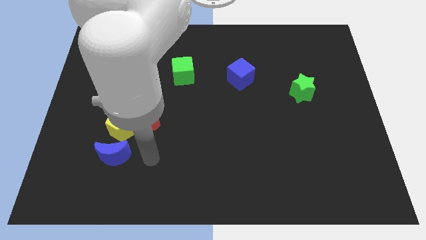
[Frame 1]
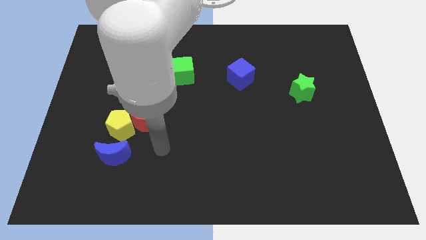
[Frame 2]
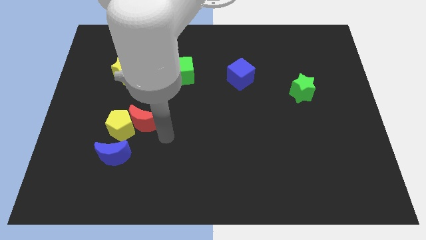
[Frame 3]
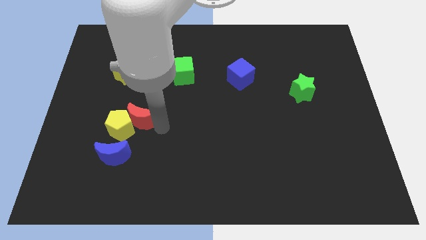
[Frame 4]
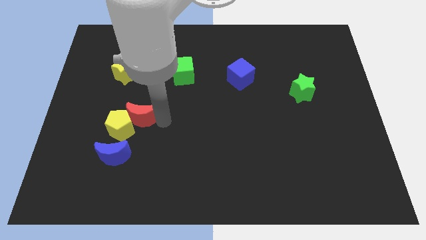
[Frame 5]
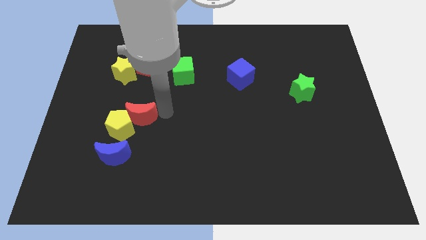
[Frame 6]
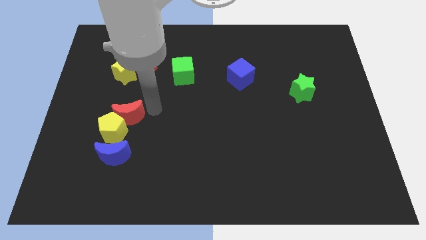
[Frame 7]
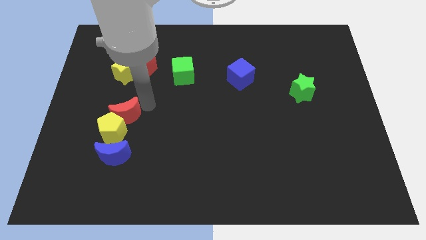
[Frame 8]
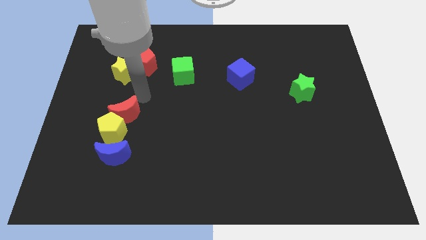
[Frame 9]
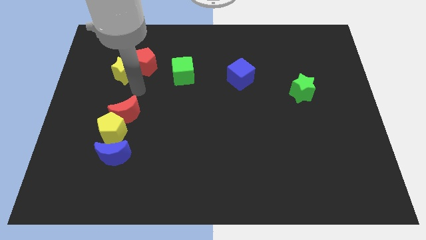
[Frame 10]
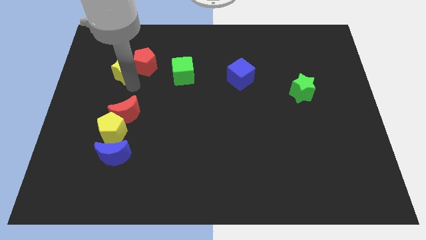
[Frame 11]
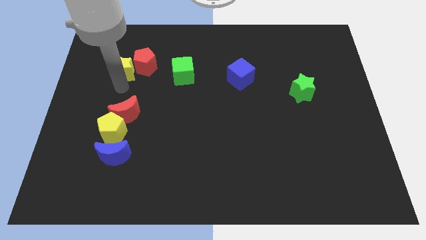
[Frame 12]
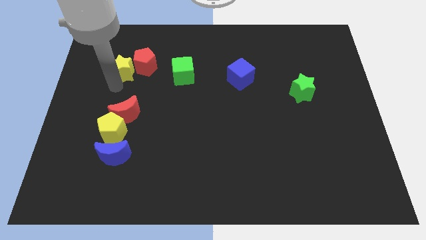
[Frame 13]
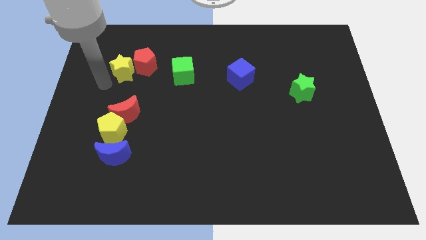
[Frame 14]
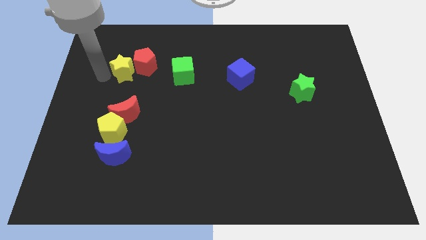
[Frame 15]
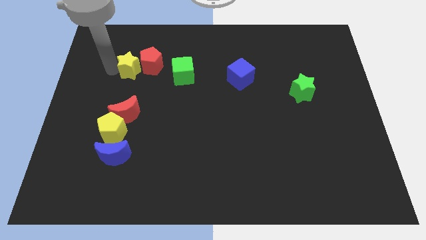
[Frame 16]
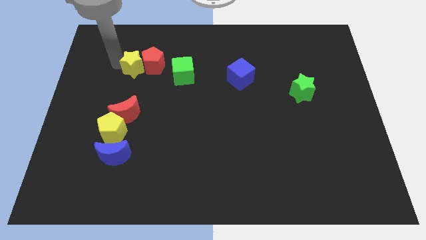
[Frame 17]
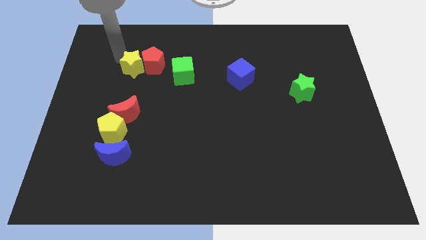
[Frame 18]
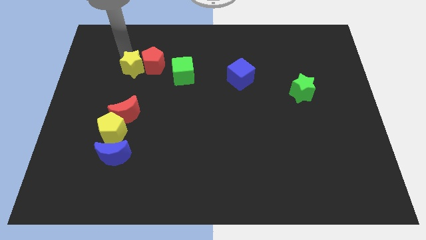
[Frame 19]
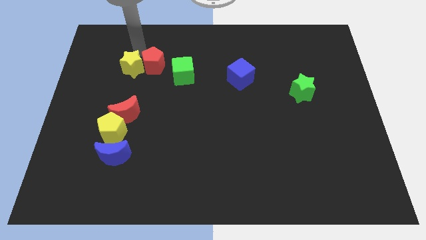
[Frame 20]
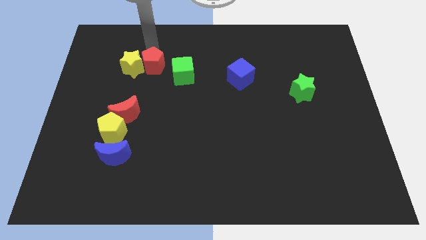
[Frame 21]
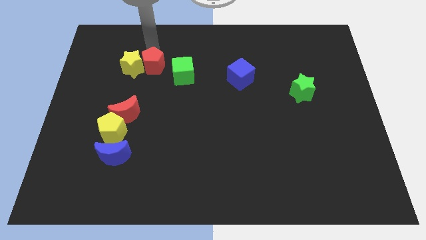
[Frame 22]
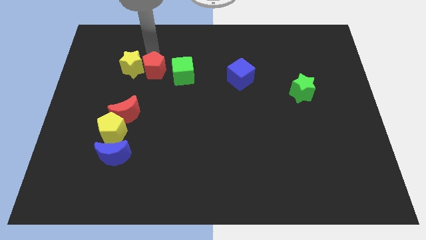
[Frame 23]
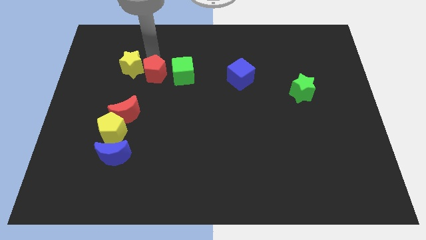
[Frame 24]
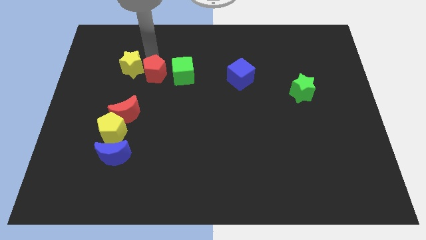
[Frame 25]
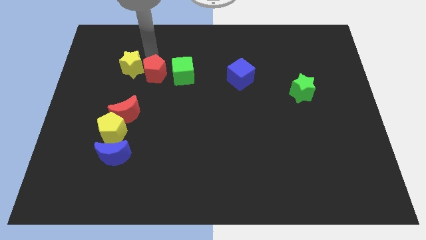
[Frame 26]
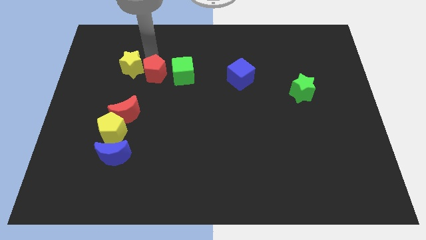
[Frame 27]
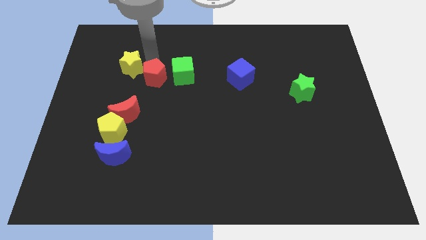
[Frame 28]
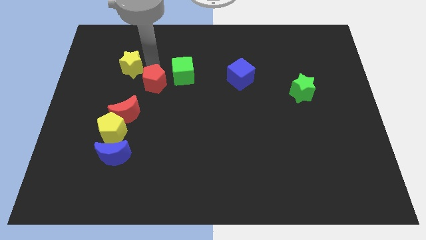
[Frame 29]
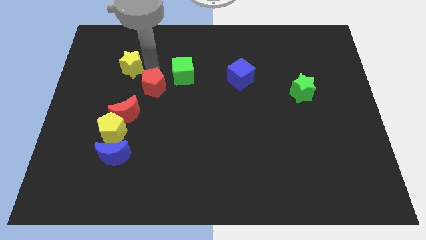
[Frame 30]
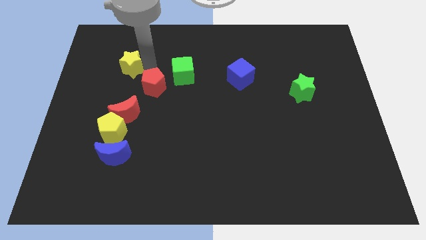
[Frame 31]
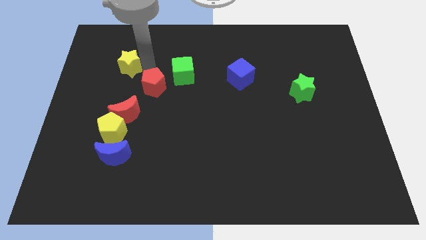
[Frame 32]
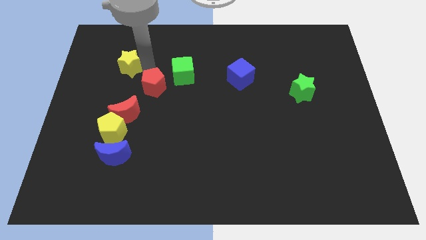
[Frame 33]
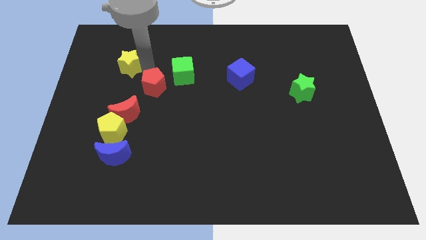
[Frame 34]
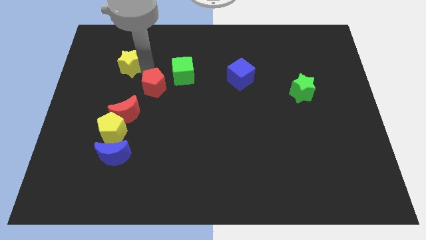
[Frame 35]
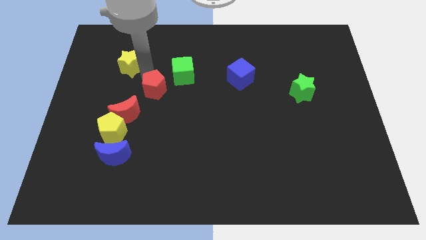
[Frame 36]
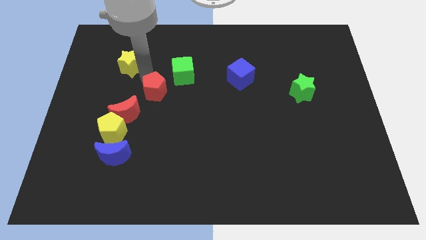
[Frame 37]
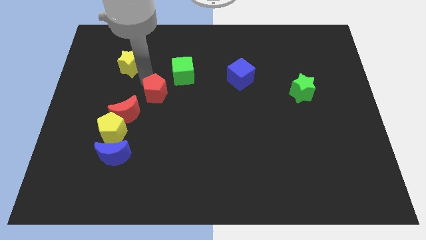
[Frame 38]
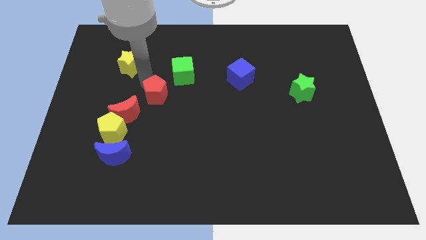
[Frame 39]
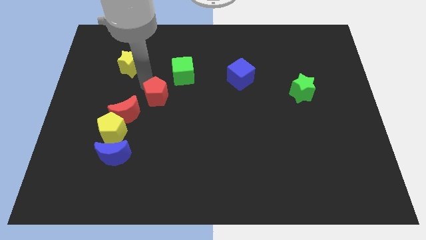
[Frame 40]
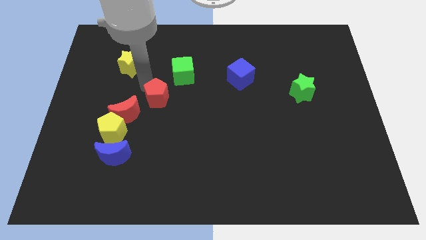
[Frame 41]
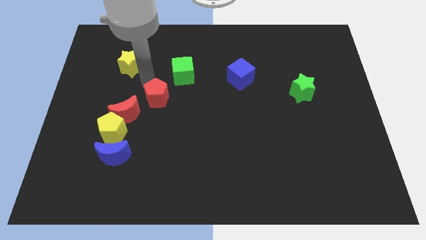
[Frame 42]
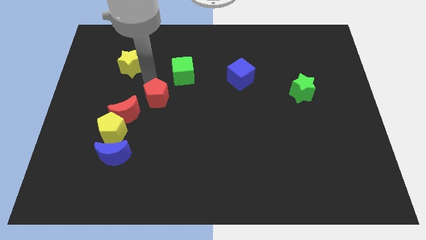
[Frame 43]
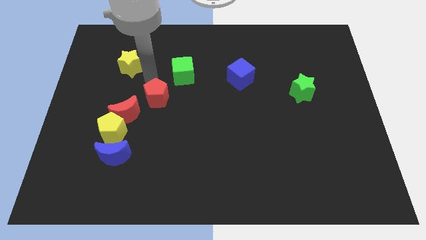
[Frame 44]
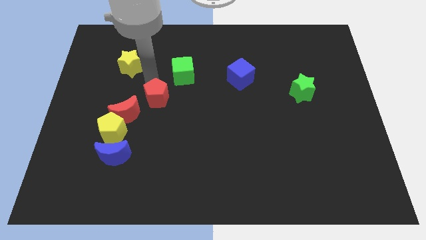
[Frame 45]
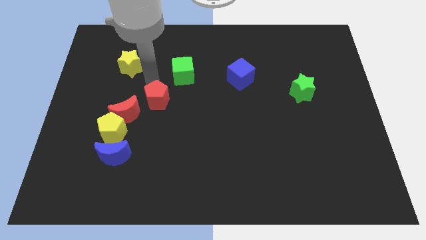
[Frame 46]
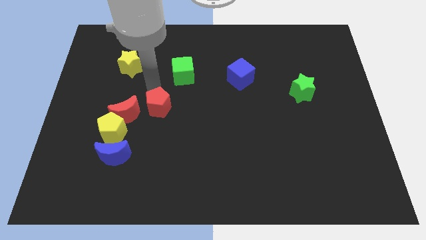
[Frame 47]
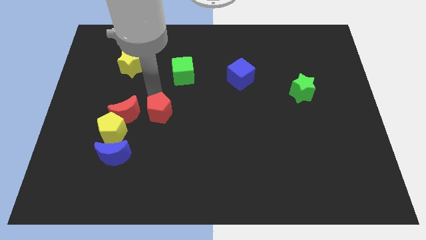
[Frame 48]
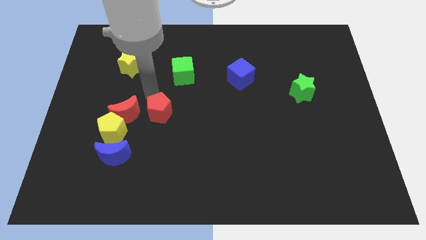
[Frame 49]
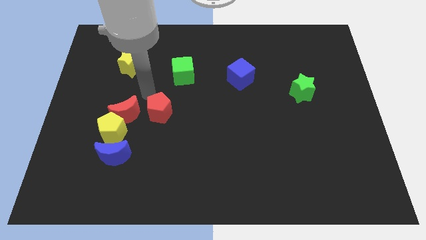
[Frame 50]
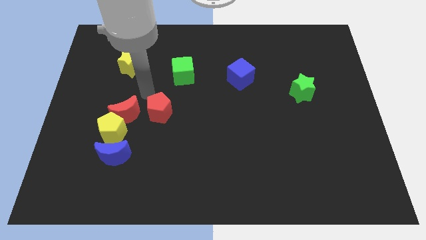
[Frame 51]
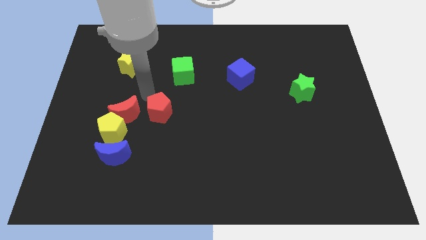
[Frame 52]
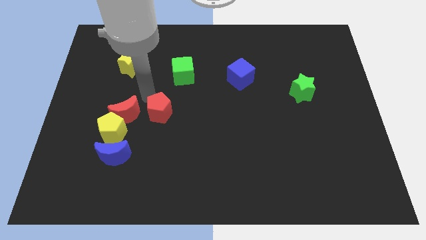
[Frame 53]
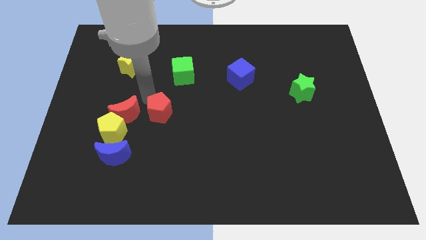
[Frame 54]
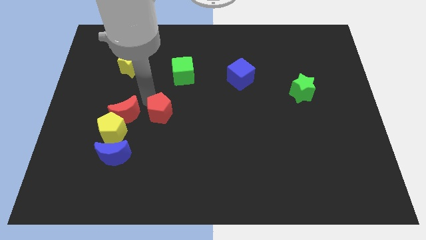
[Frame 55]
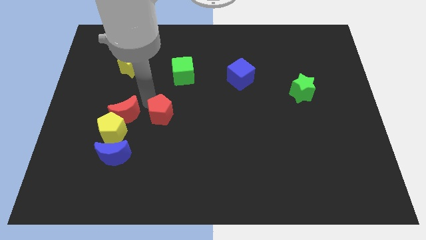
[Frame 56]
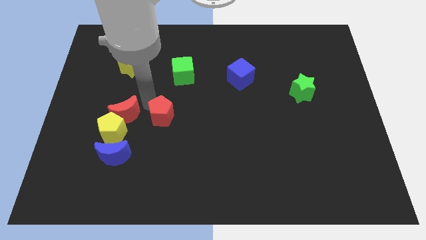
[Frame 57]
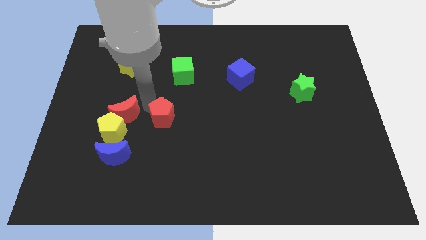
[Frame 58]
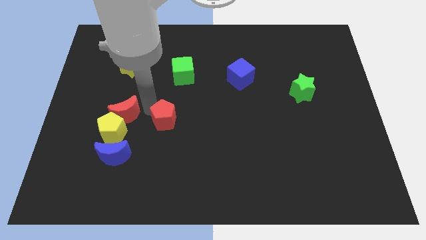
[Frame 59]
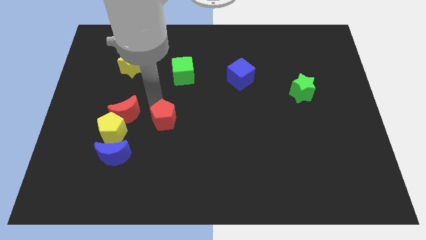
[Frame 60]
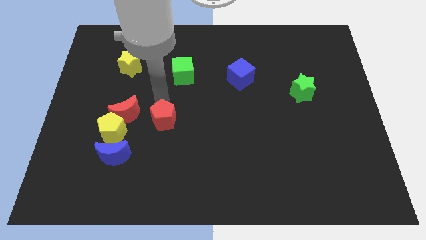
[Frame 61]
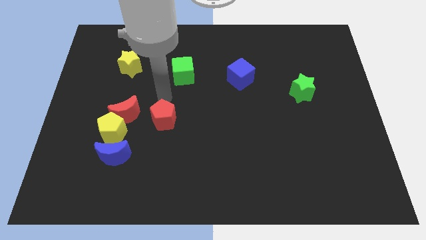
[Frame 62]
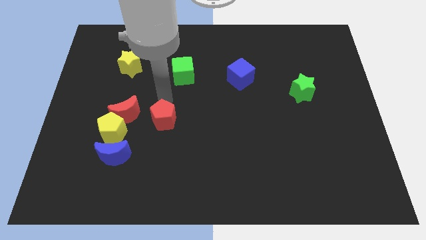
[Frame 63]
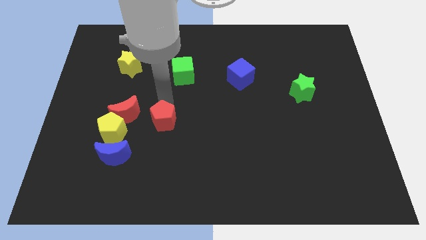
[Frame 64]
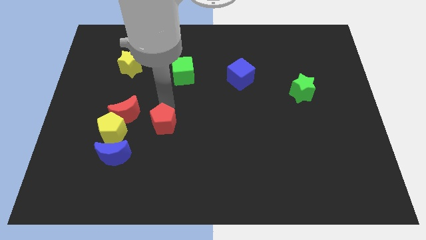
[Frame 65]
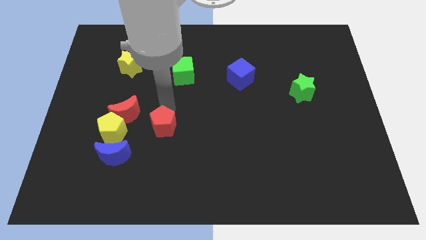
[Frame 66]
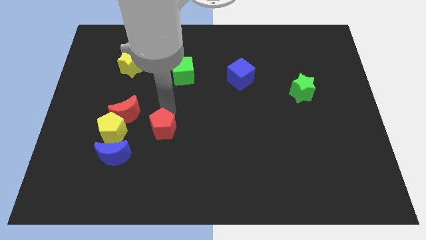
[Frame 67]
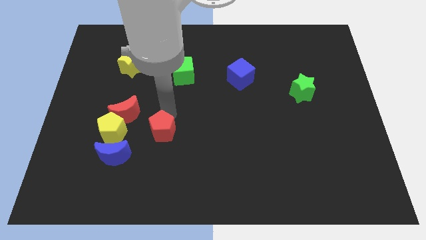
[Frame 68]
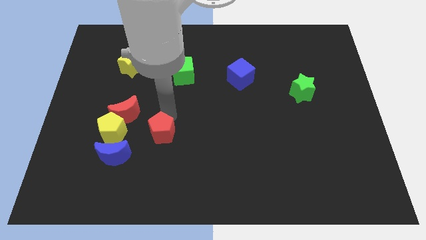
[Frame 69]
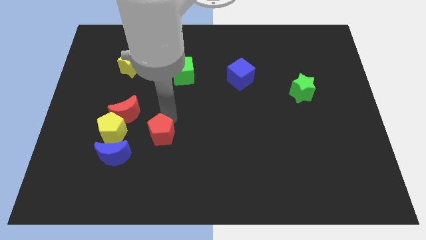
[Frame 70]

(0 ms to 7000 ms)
slide the red pentagon downwards

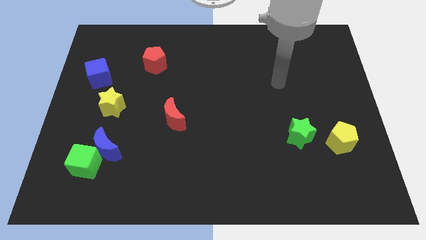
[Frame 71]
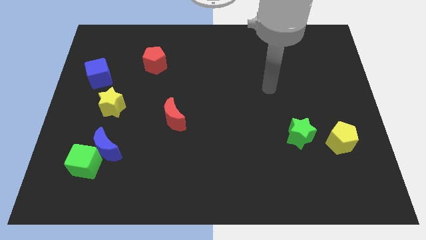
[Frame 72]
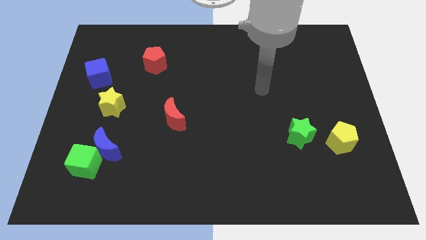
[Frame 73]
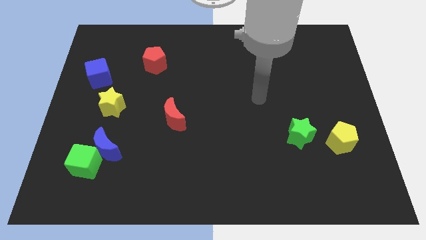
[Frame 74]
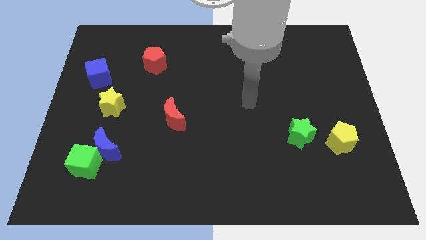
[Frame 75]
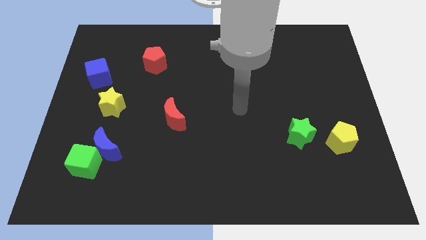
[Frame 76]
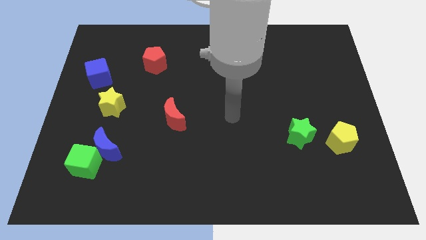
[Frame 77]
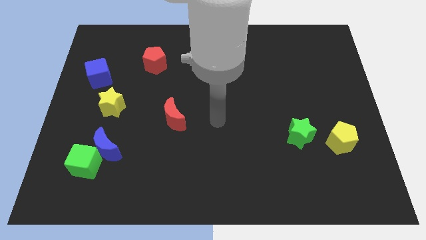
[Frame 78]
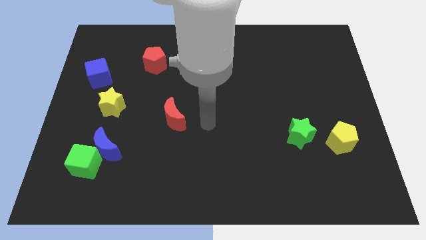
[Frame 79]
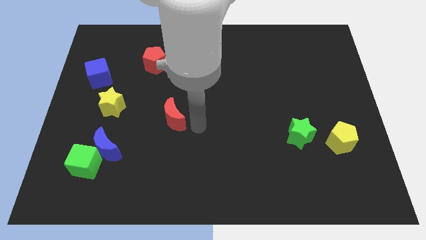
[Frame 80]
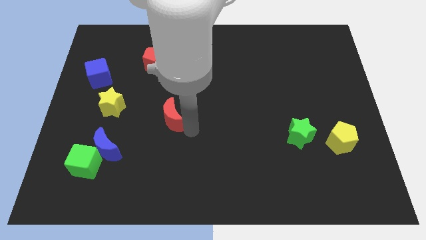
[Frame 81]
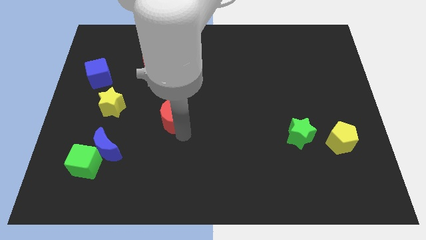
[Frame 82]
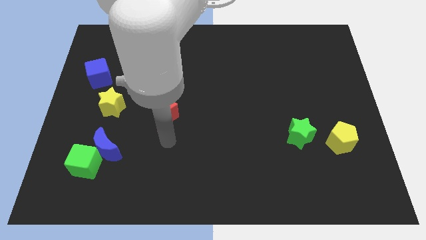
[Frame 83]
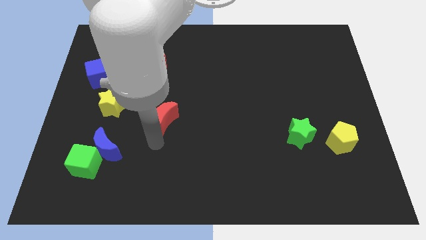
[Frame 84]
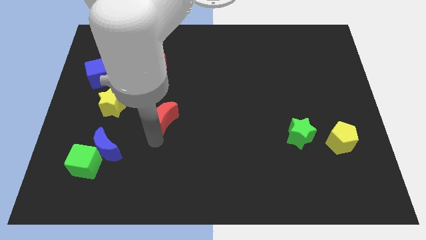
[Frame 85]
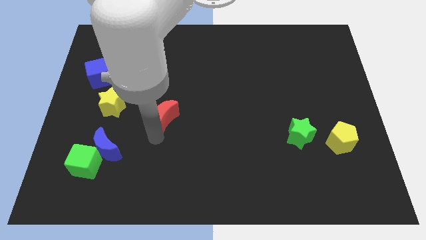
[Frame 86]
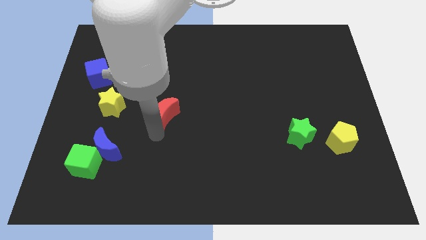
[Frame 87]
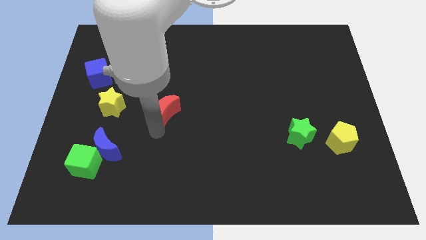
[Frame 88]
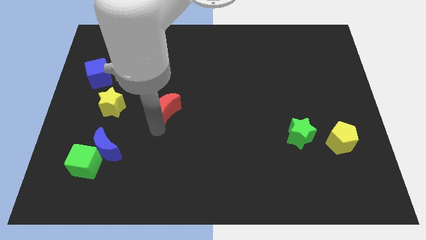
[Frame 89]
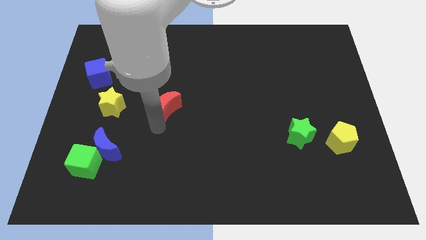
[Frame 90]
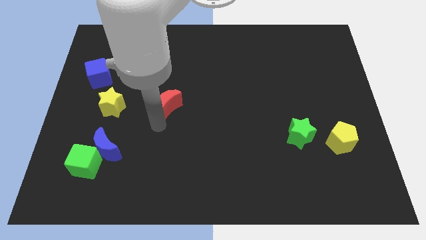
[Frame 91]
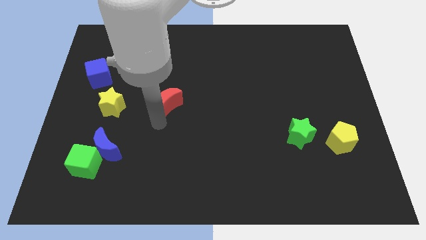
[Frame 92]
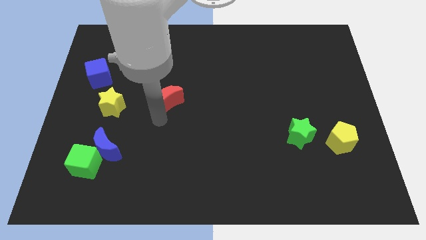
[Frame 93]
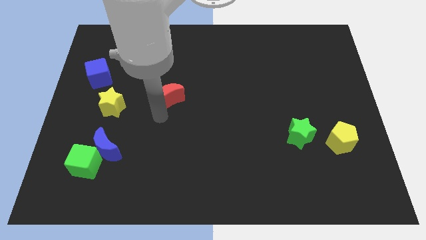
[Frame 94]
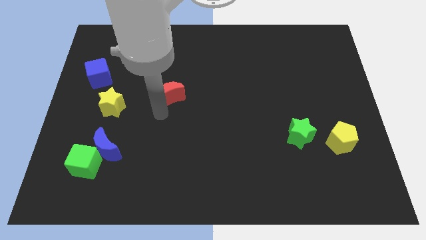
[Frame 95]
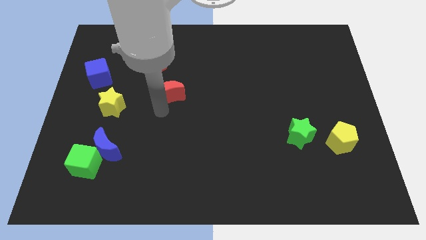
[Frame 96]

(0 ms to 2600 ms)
slightly move the red moon upwards
